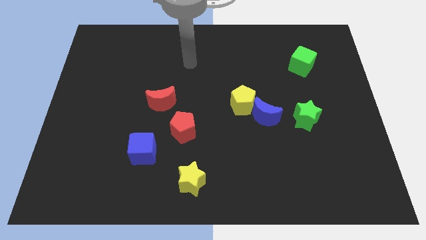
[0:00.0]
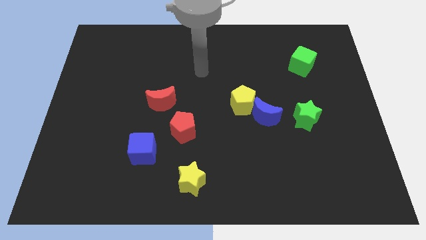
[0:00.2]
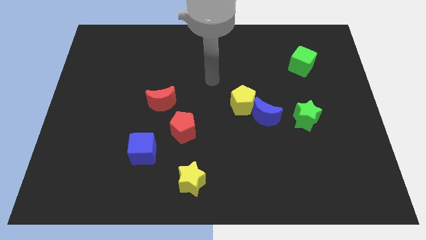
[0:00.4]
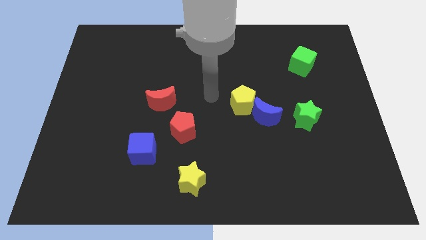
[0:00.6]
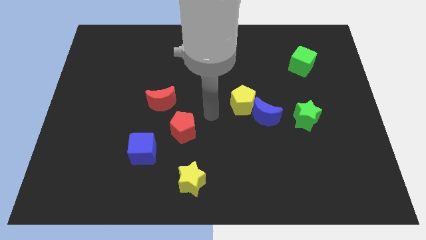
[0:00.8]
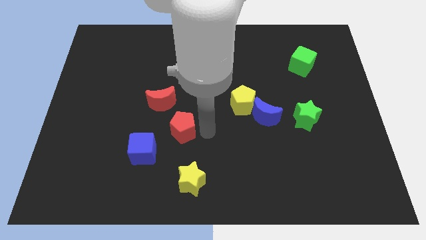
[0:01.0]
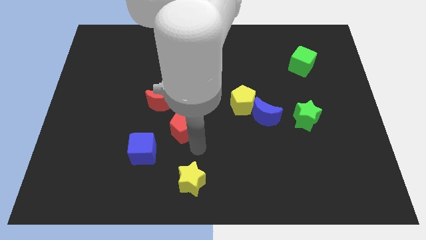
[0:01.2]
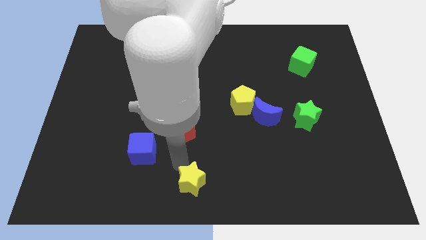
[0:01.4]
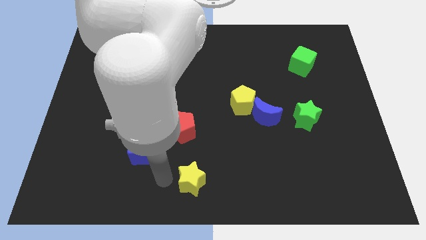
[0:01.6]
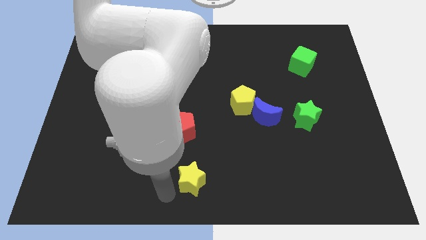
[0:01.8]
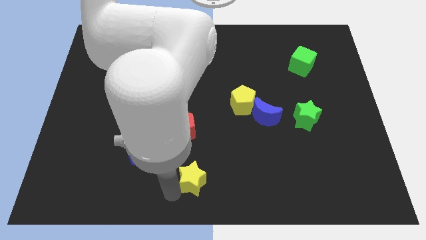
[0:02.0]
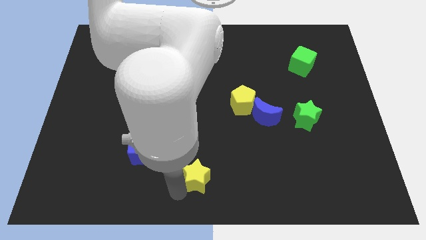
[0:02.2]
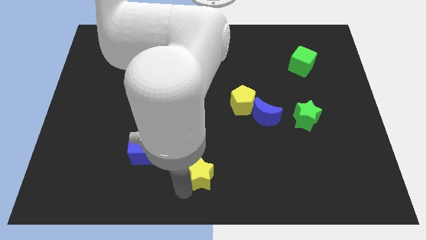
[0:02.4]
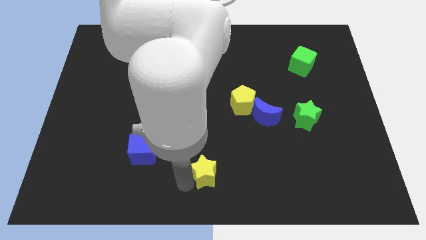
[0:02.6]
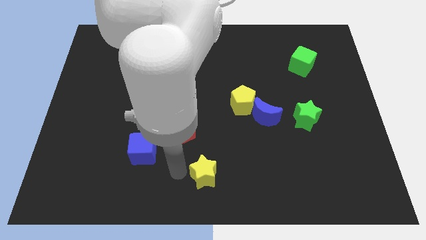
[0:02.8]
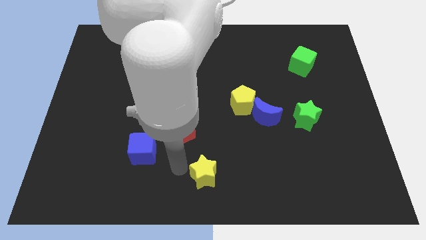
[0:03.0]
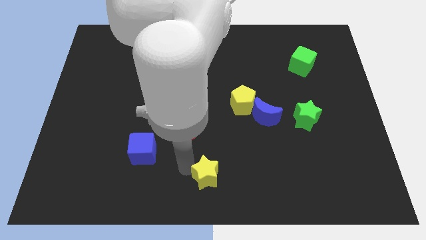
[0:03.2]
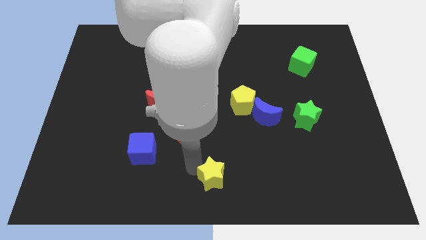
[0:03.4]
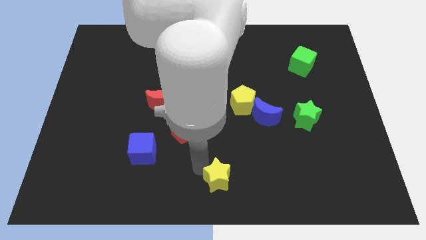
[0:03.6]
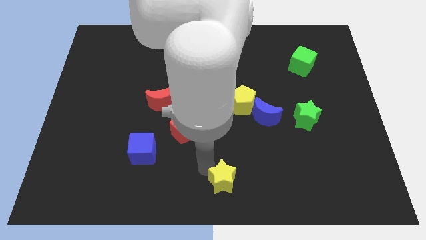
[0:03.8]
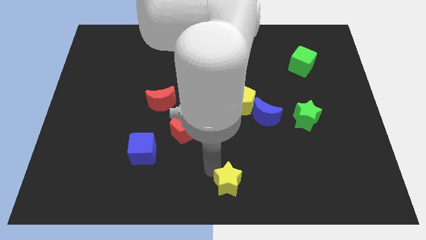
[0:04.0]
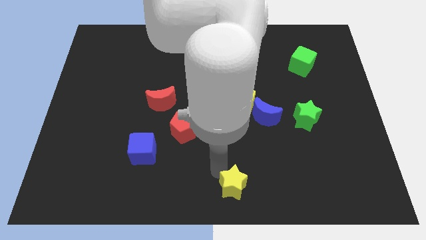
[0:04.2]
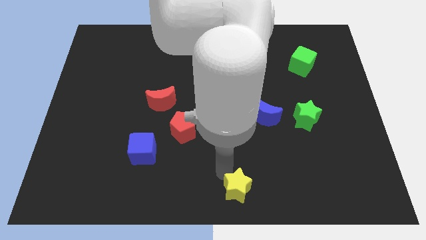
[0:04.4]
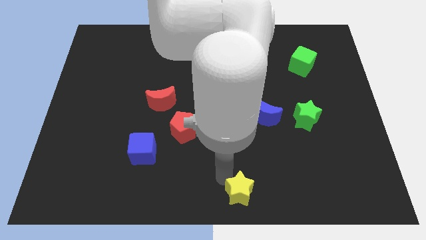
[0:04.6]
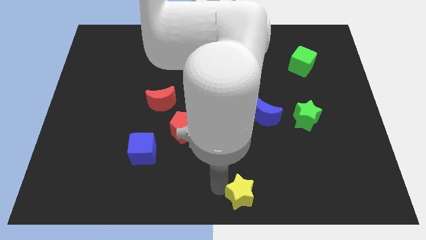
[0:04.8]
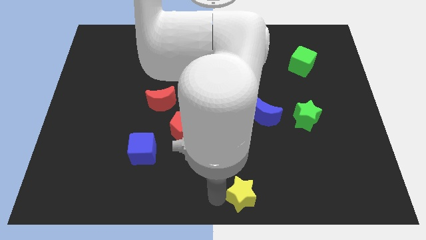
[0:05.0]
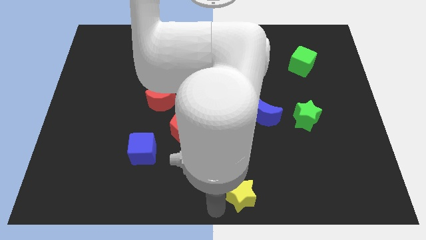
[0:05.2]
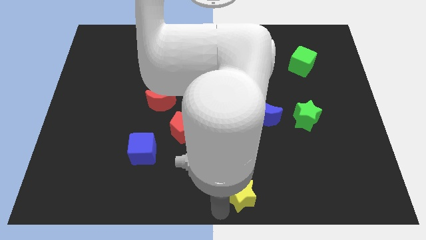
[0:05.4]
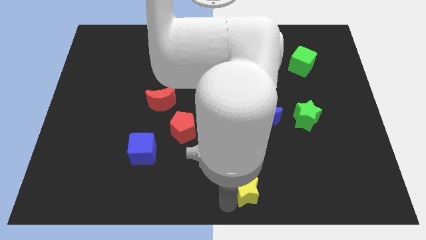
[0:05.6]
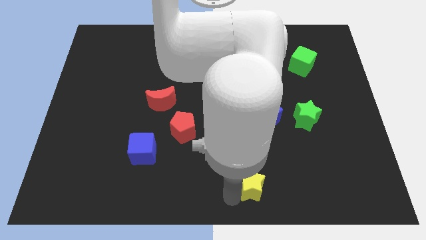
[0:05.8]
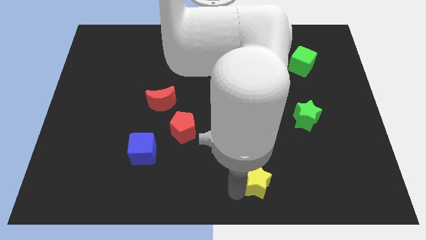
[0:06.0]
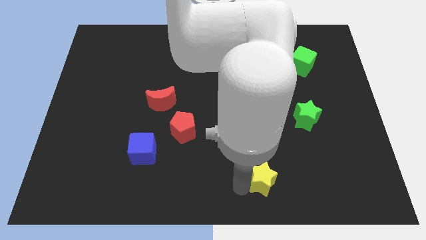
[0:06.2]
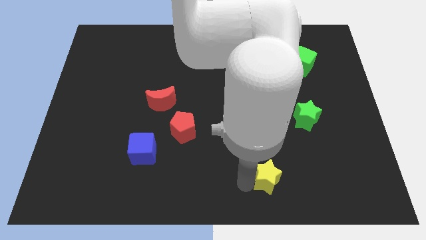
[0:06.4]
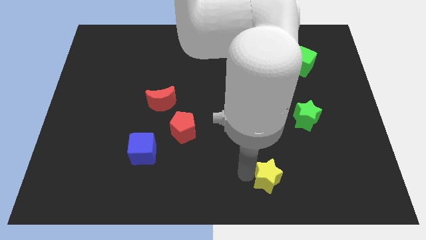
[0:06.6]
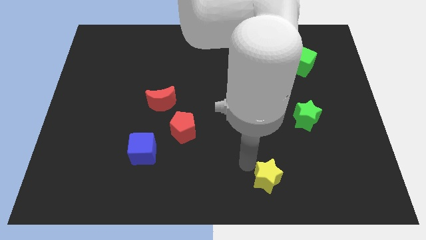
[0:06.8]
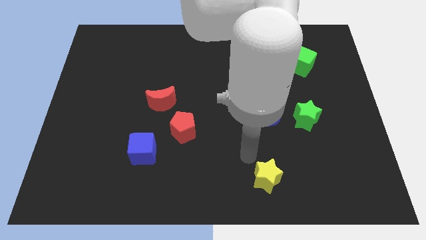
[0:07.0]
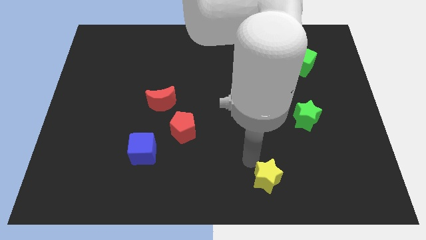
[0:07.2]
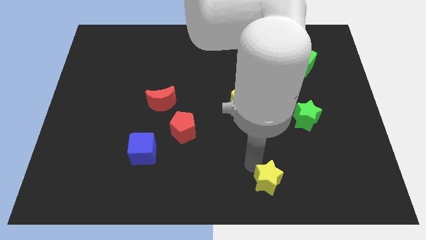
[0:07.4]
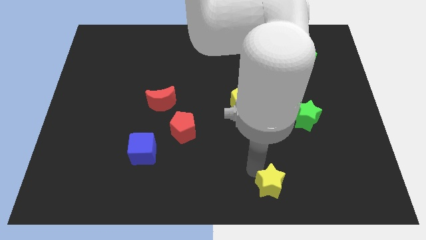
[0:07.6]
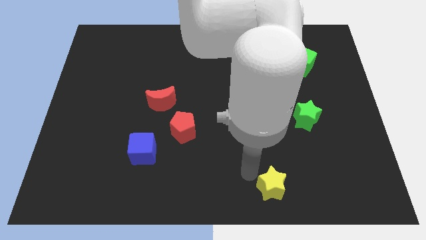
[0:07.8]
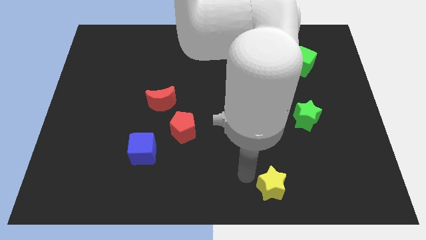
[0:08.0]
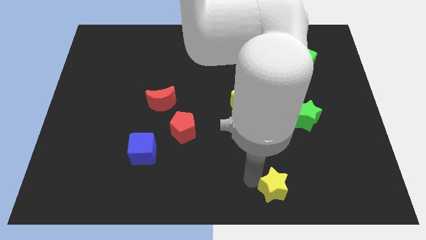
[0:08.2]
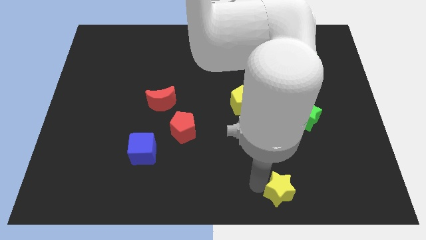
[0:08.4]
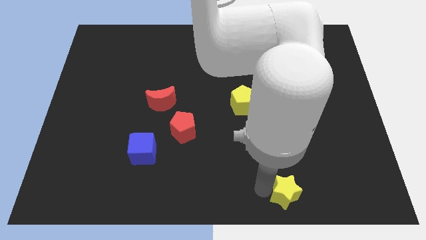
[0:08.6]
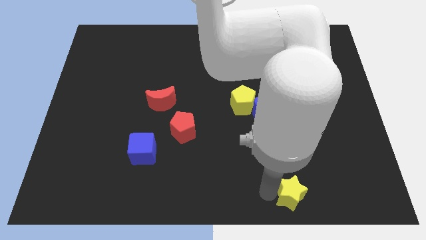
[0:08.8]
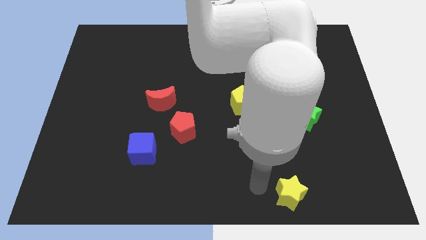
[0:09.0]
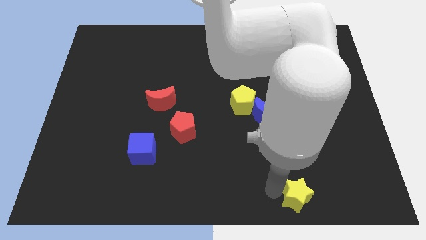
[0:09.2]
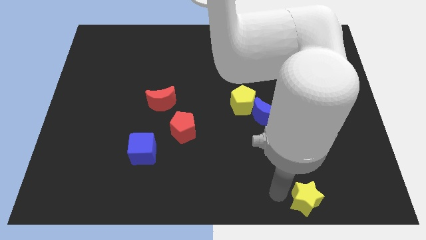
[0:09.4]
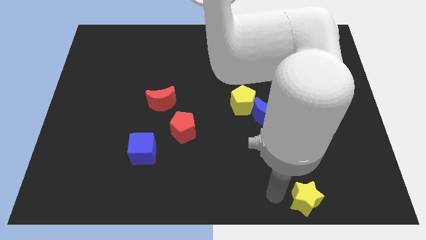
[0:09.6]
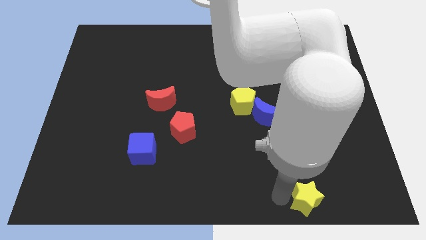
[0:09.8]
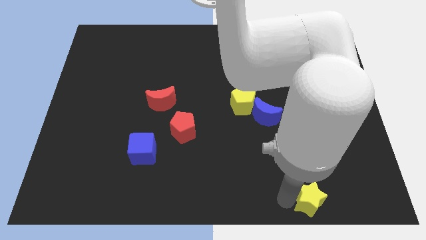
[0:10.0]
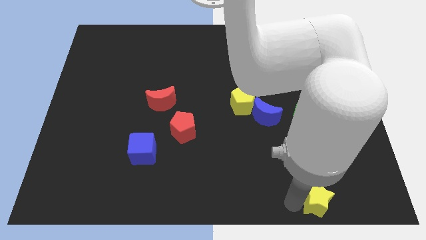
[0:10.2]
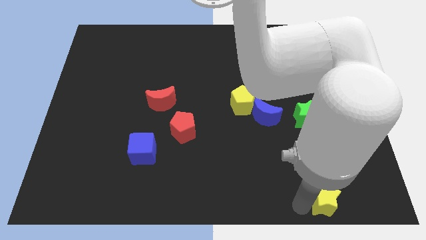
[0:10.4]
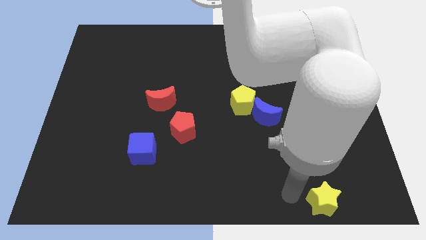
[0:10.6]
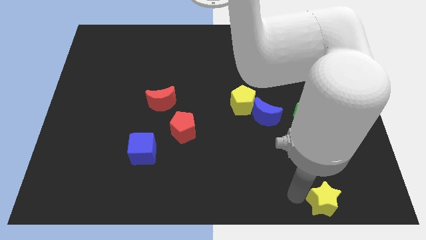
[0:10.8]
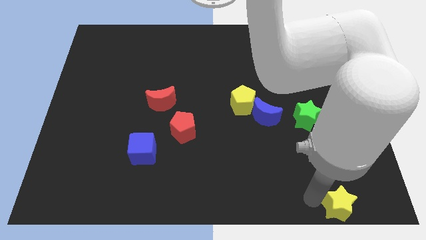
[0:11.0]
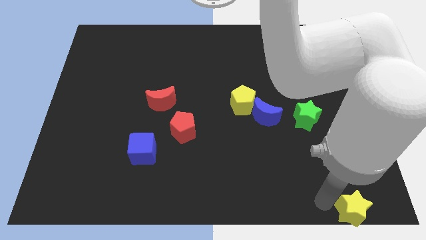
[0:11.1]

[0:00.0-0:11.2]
push the yellow star to the lower right corner

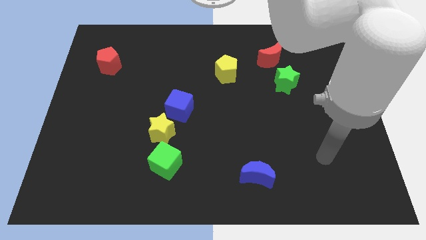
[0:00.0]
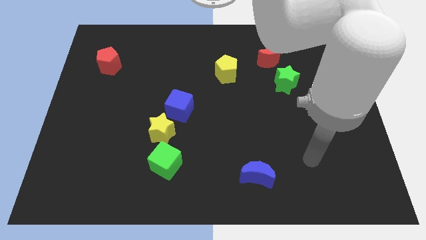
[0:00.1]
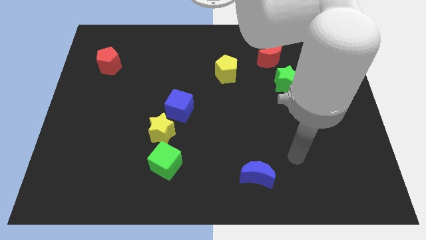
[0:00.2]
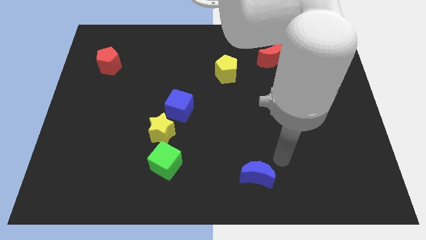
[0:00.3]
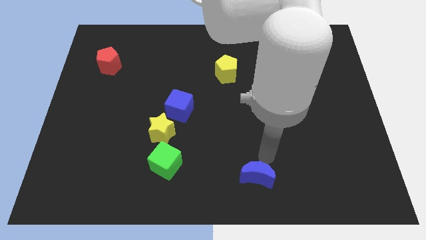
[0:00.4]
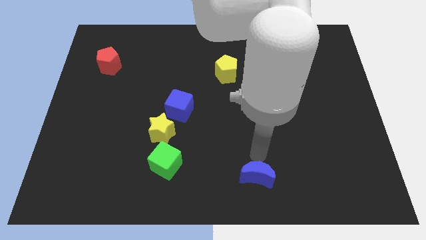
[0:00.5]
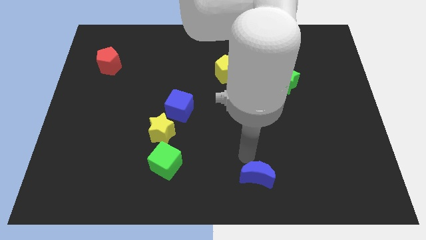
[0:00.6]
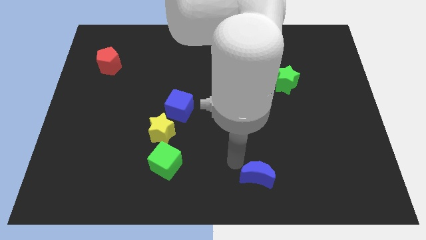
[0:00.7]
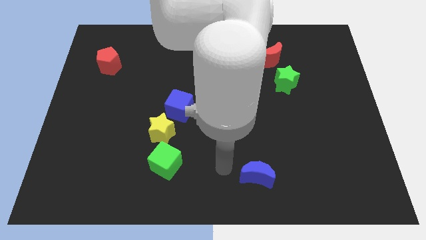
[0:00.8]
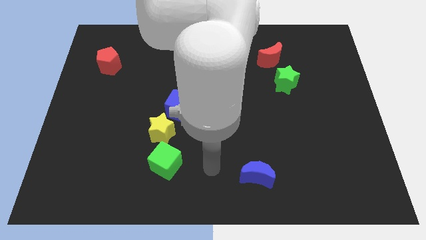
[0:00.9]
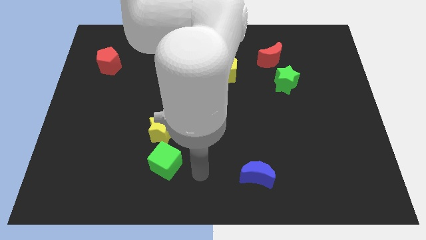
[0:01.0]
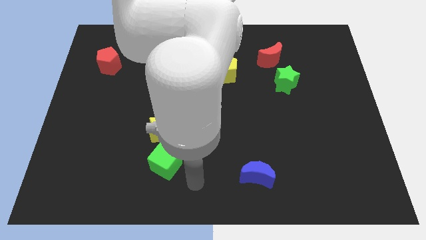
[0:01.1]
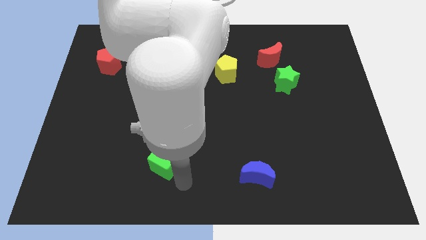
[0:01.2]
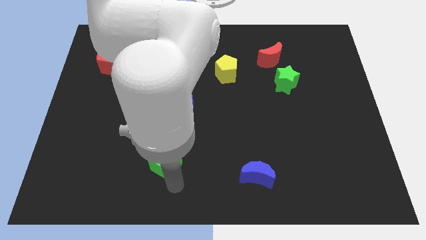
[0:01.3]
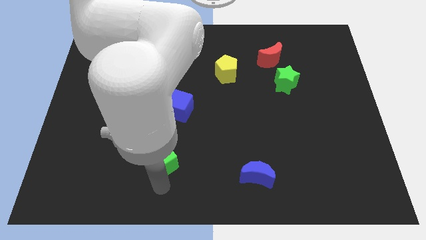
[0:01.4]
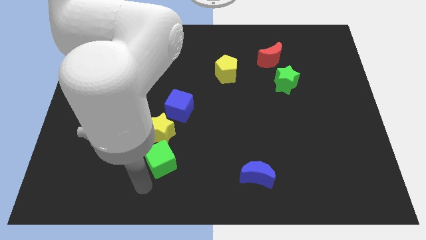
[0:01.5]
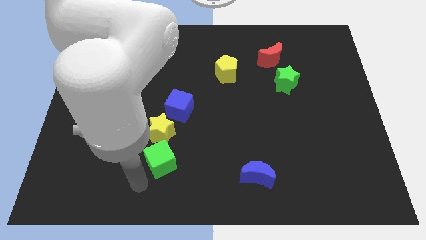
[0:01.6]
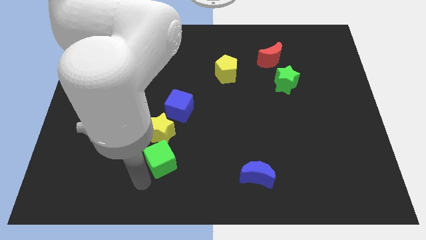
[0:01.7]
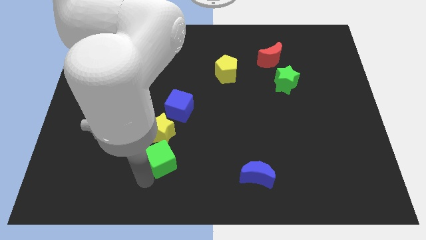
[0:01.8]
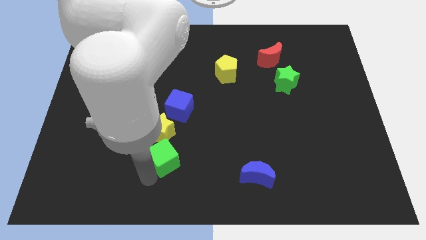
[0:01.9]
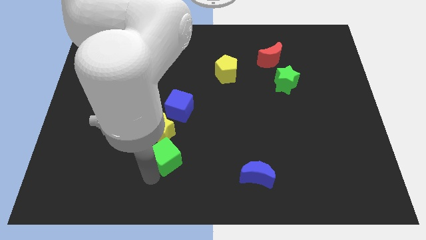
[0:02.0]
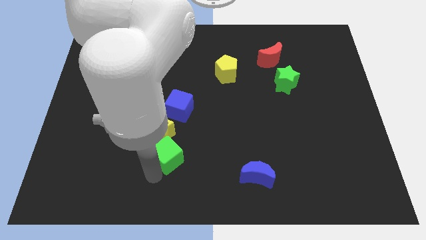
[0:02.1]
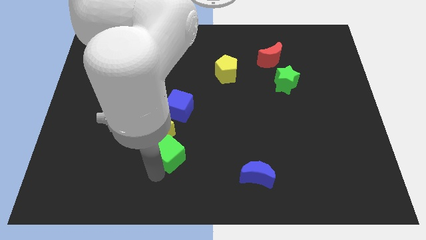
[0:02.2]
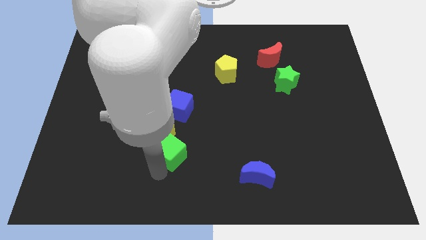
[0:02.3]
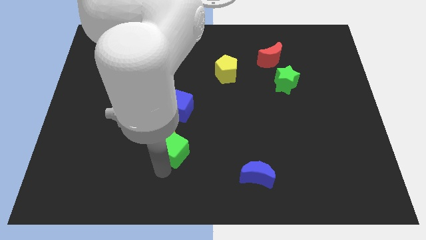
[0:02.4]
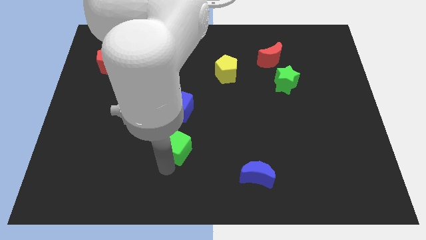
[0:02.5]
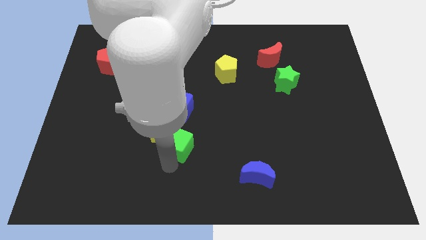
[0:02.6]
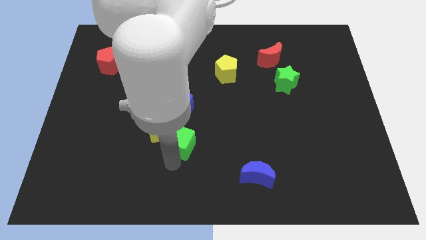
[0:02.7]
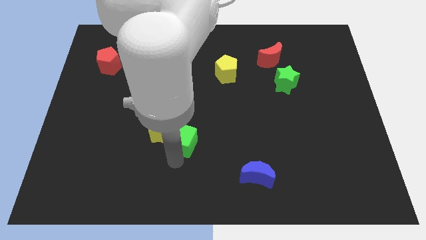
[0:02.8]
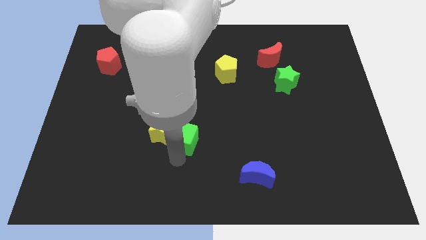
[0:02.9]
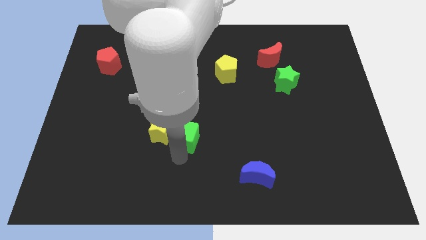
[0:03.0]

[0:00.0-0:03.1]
put the green cube to the middle
